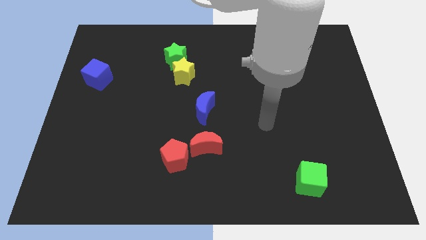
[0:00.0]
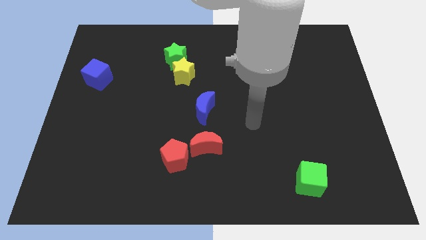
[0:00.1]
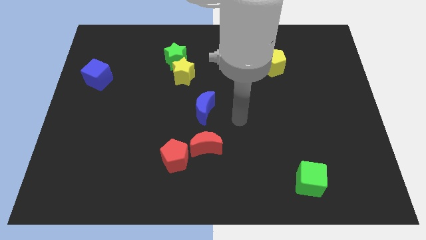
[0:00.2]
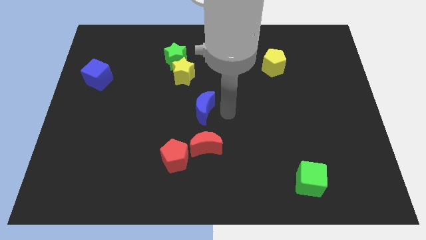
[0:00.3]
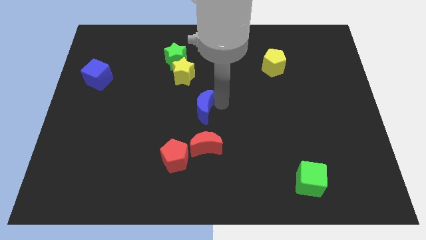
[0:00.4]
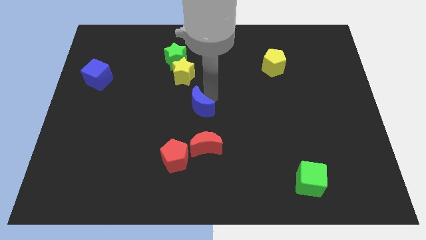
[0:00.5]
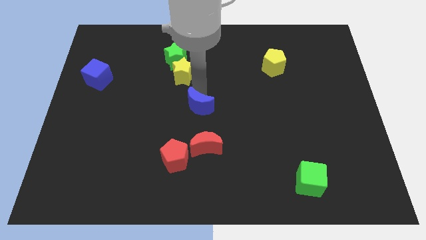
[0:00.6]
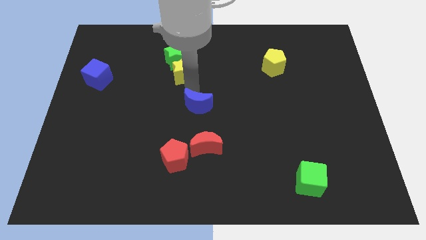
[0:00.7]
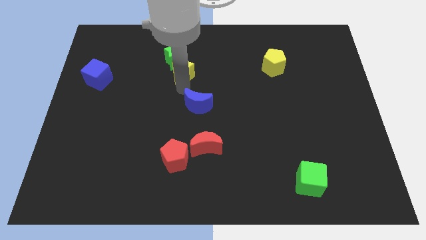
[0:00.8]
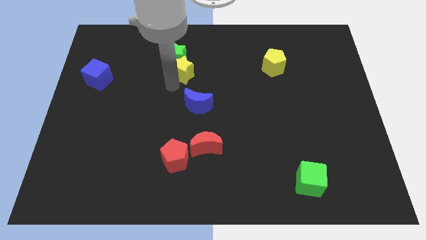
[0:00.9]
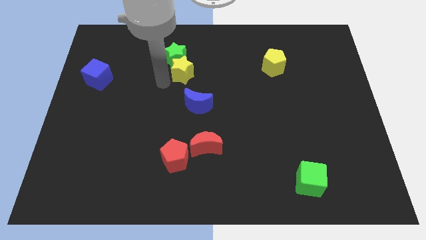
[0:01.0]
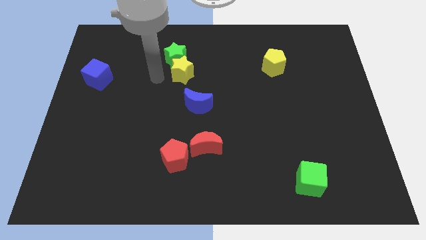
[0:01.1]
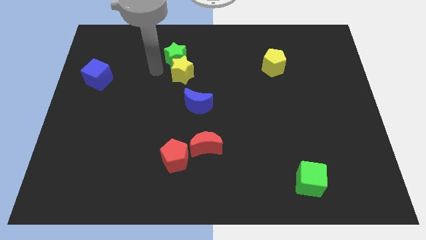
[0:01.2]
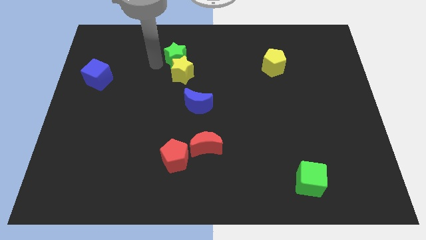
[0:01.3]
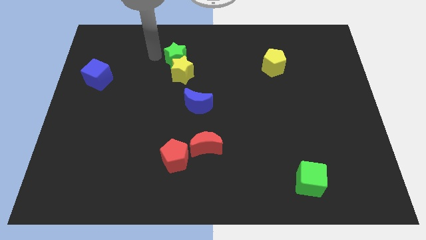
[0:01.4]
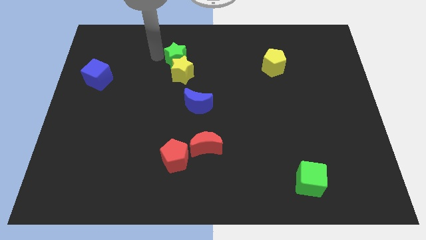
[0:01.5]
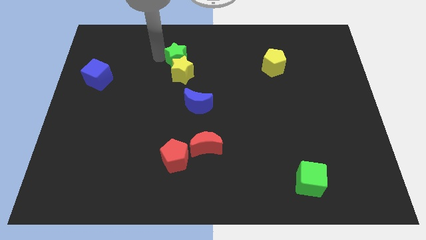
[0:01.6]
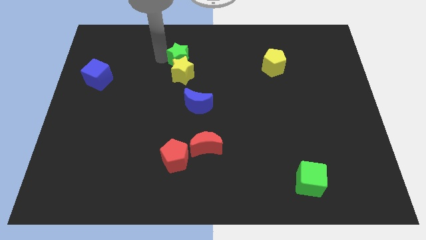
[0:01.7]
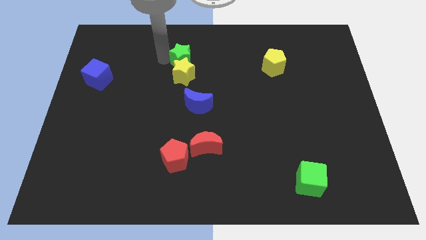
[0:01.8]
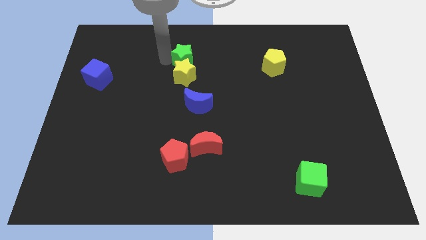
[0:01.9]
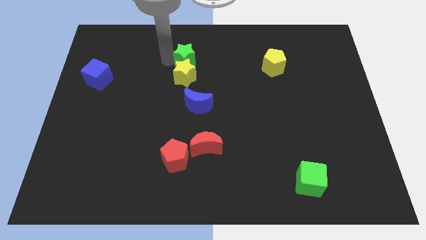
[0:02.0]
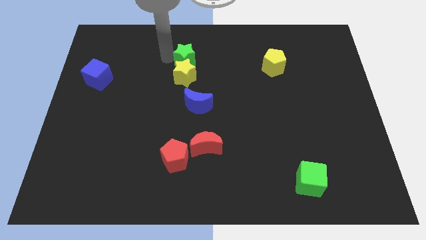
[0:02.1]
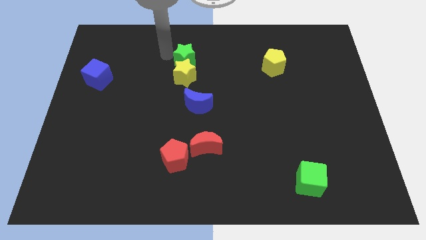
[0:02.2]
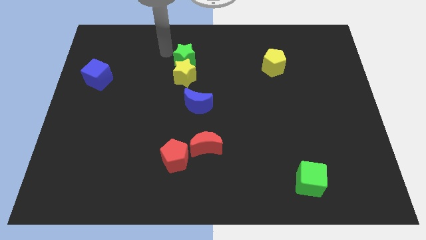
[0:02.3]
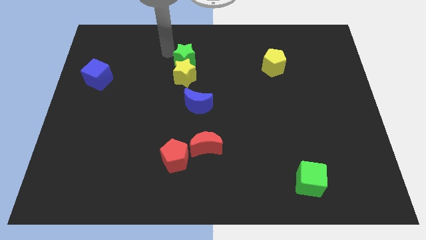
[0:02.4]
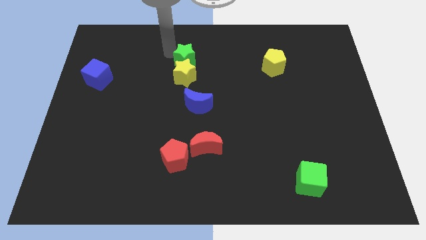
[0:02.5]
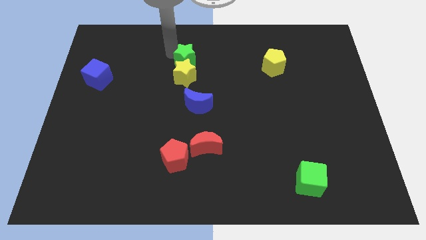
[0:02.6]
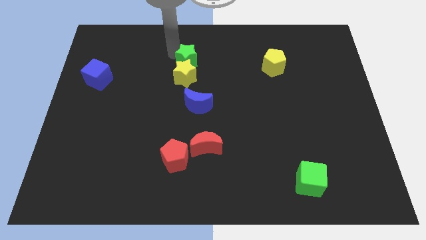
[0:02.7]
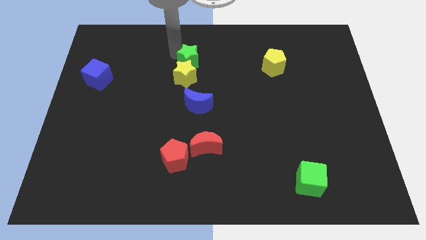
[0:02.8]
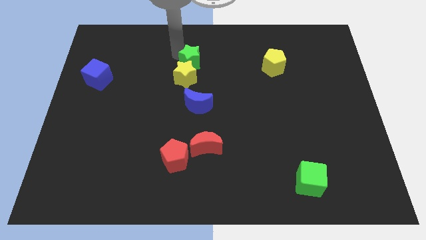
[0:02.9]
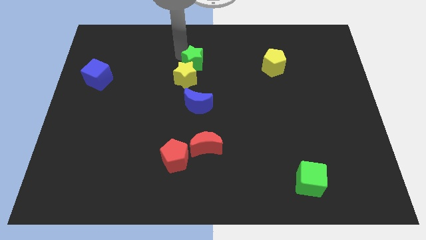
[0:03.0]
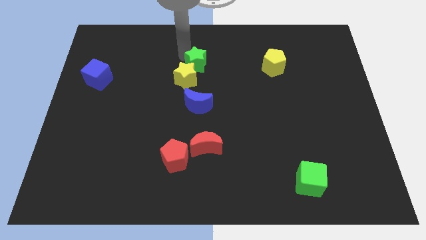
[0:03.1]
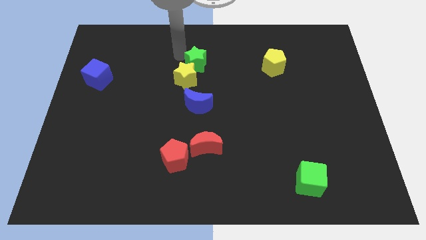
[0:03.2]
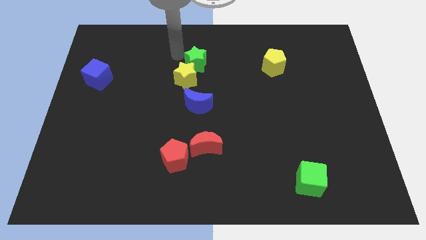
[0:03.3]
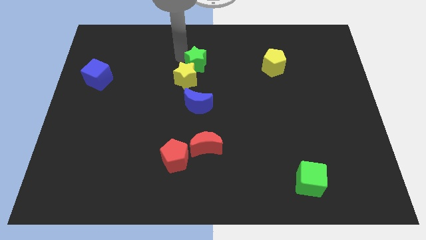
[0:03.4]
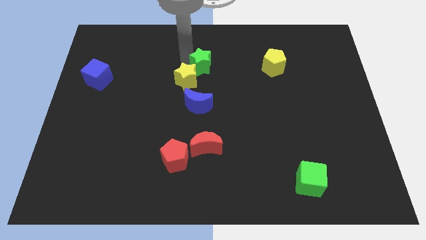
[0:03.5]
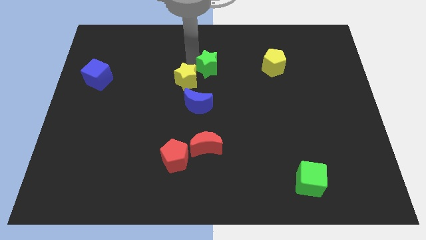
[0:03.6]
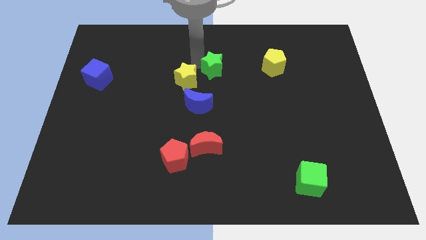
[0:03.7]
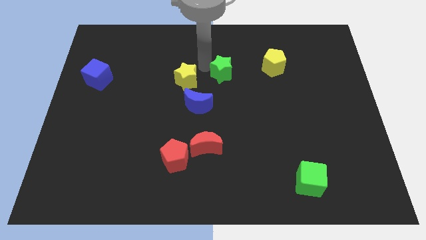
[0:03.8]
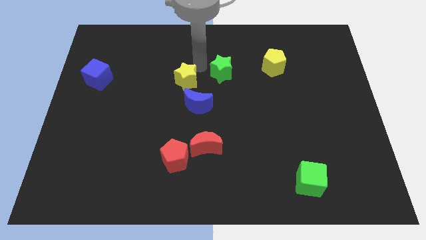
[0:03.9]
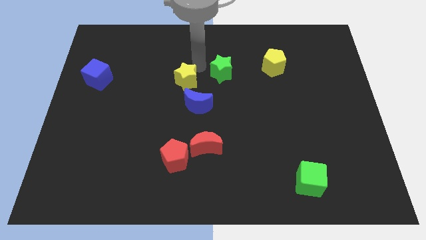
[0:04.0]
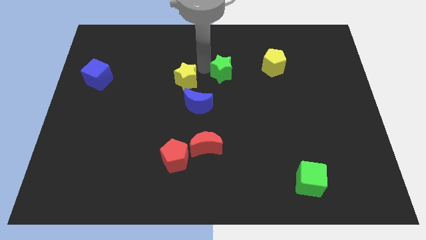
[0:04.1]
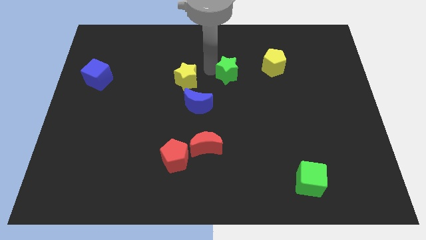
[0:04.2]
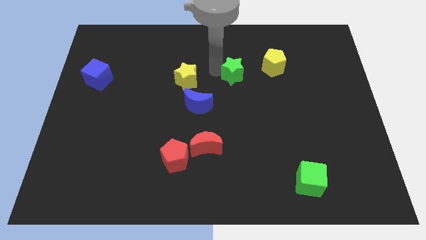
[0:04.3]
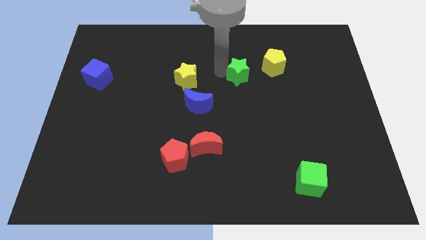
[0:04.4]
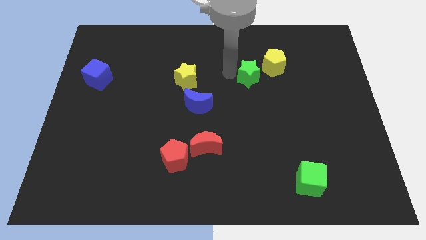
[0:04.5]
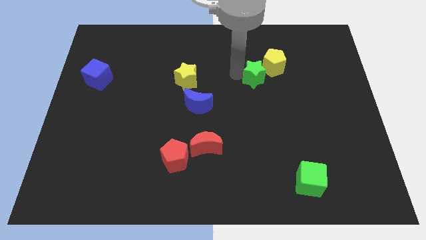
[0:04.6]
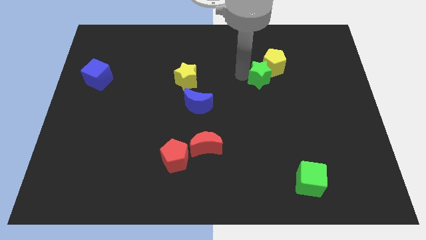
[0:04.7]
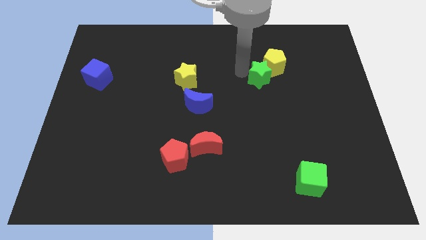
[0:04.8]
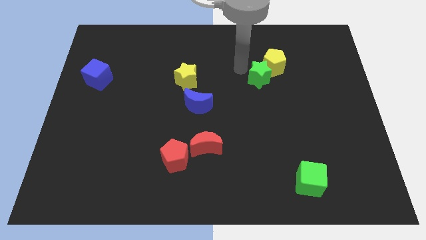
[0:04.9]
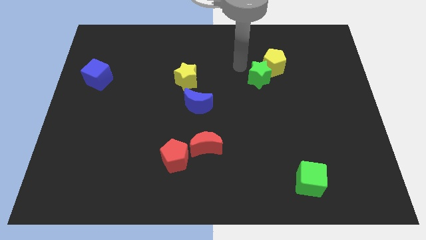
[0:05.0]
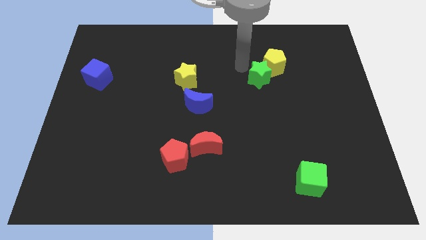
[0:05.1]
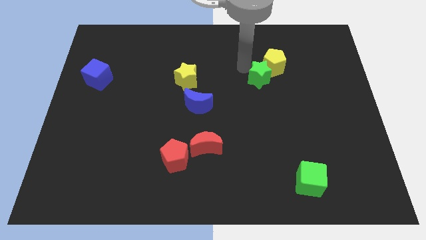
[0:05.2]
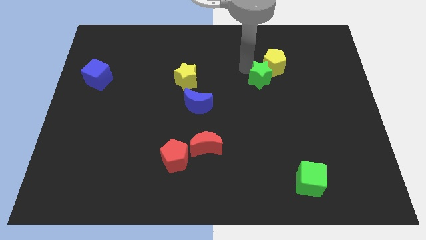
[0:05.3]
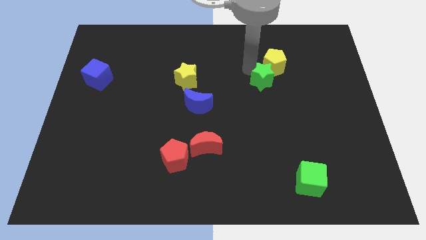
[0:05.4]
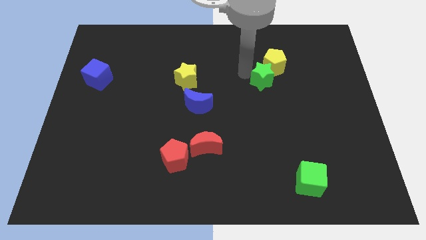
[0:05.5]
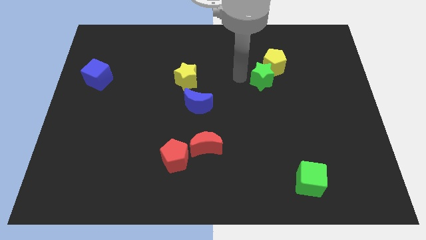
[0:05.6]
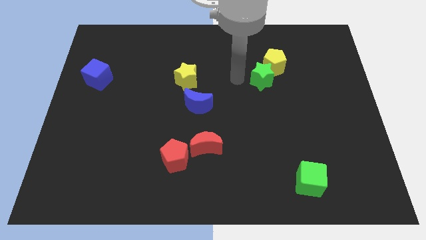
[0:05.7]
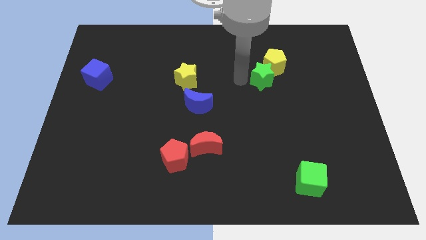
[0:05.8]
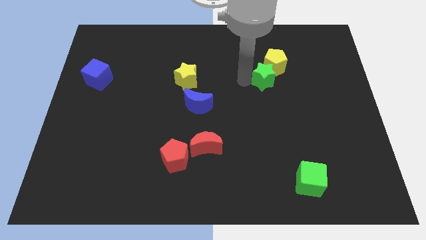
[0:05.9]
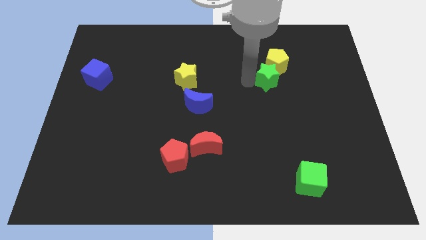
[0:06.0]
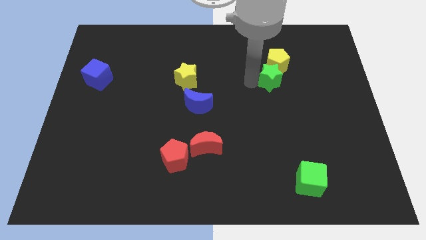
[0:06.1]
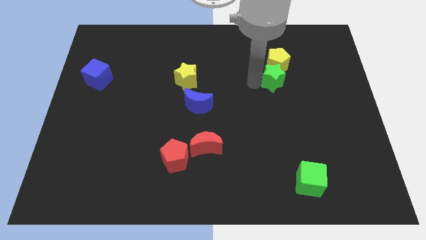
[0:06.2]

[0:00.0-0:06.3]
move the green star to the bottom right of the yellow pentagon

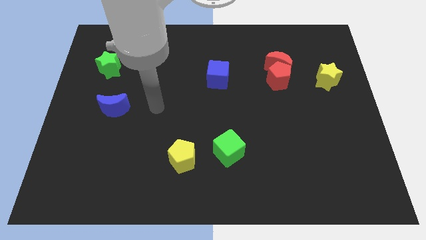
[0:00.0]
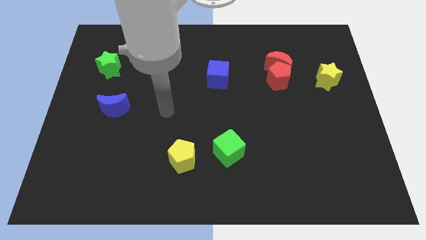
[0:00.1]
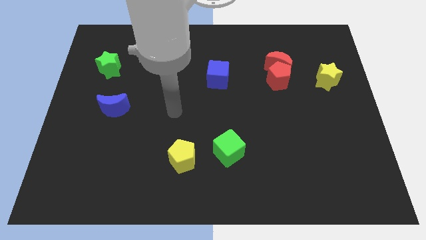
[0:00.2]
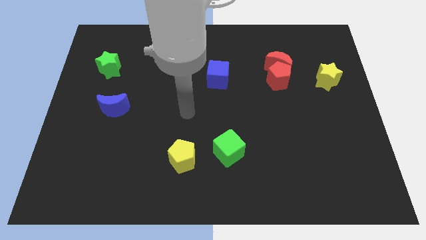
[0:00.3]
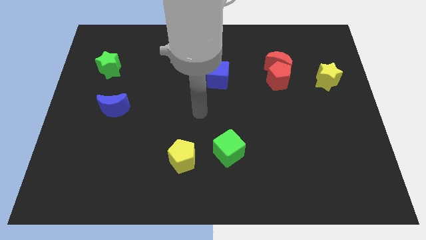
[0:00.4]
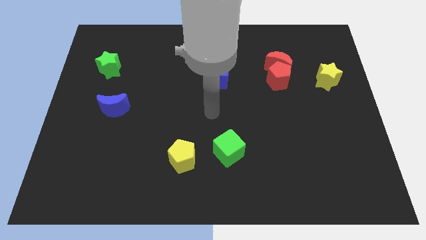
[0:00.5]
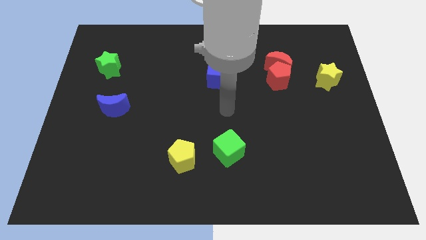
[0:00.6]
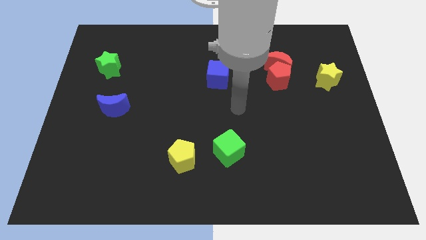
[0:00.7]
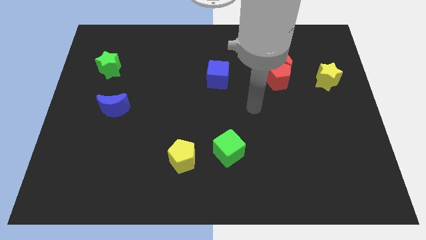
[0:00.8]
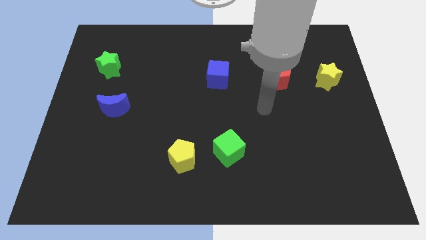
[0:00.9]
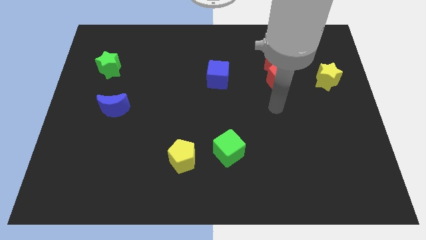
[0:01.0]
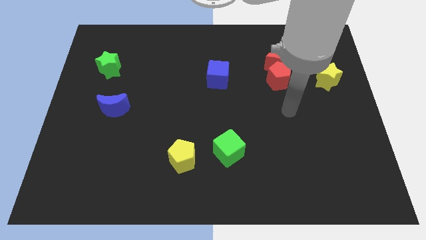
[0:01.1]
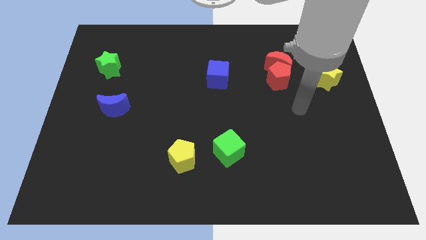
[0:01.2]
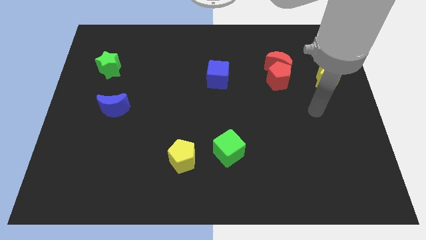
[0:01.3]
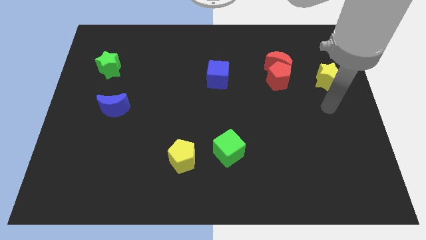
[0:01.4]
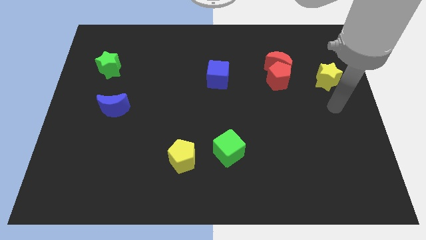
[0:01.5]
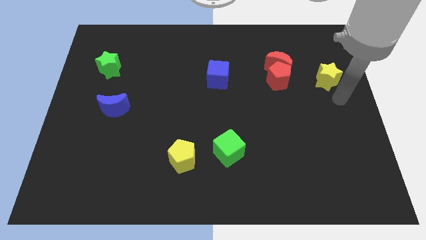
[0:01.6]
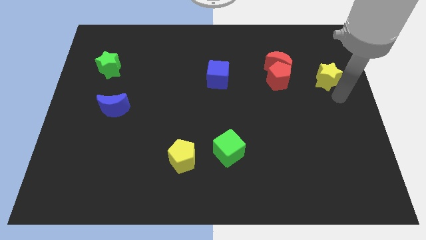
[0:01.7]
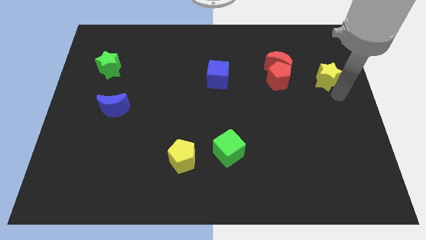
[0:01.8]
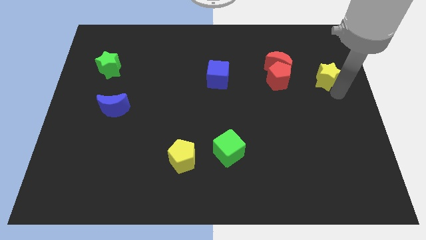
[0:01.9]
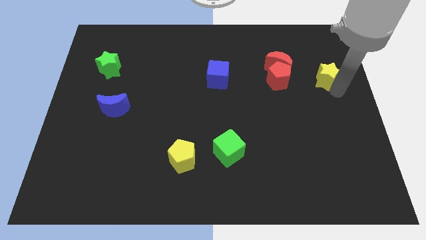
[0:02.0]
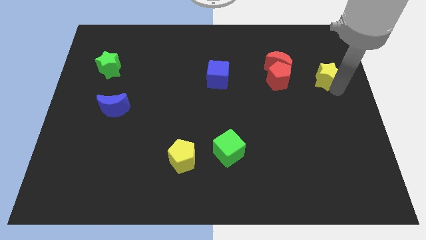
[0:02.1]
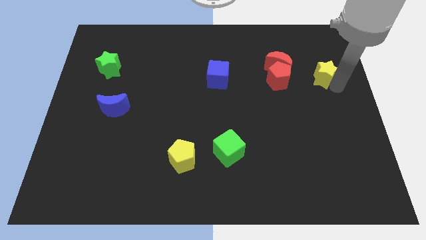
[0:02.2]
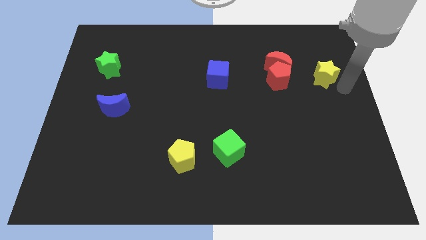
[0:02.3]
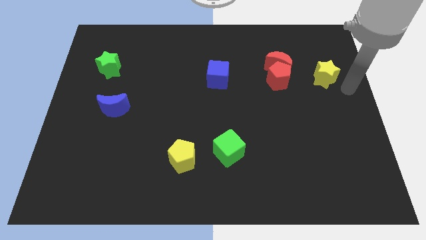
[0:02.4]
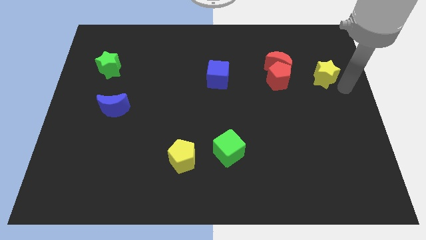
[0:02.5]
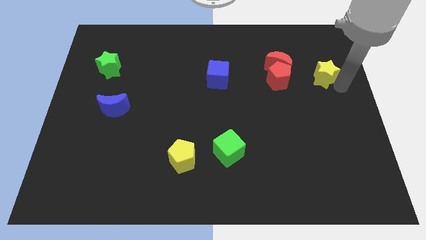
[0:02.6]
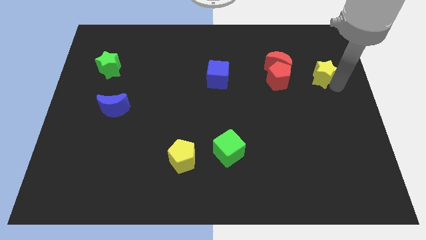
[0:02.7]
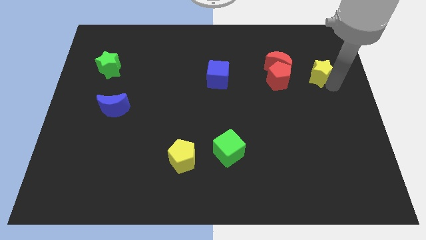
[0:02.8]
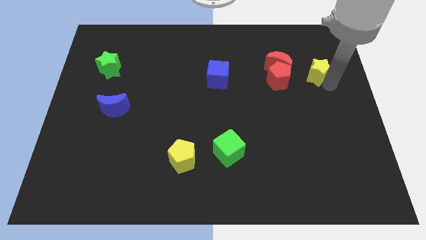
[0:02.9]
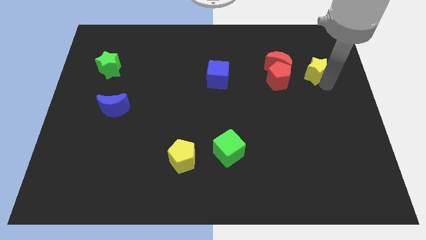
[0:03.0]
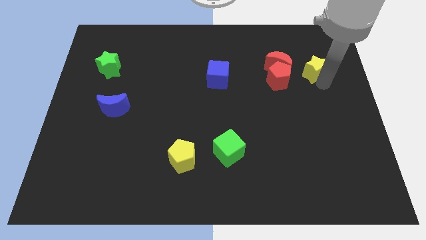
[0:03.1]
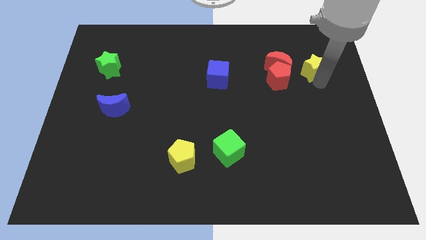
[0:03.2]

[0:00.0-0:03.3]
slide the yellow star to the top right side of the red pentagon
